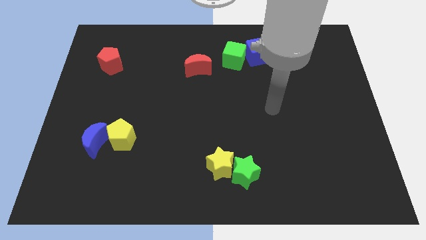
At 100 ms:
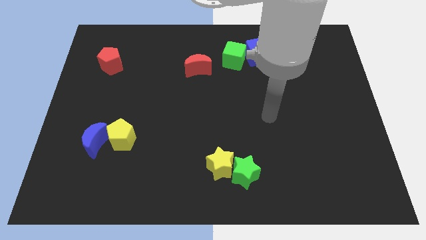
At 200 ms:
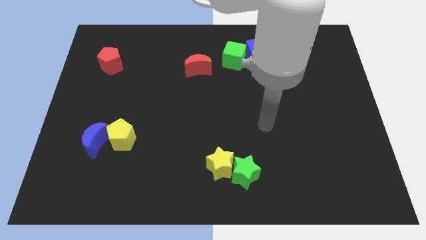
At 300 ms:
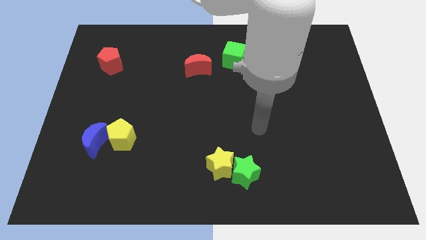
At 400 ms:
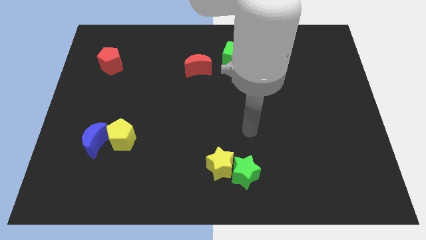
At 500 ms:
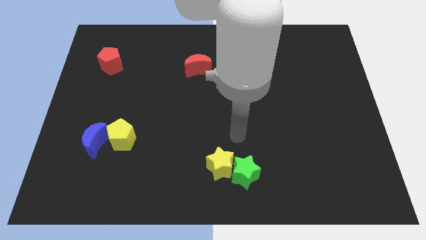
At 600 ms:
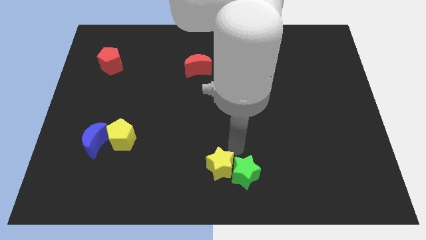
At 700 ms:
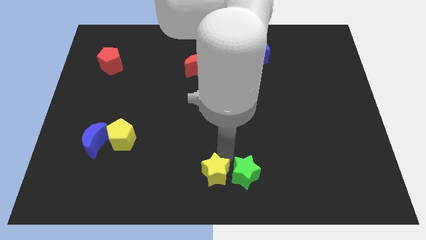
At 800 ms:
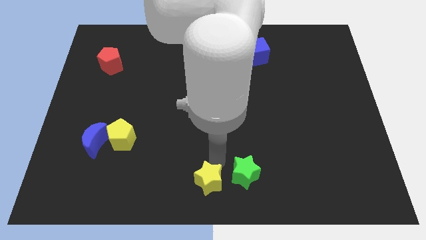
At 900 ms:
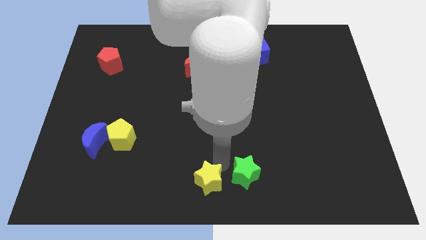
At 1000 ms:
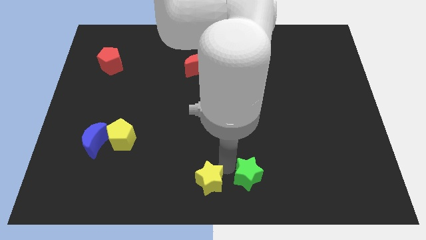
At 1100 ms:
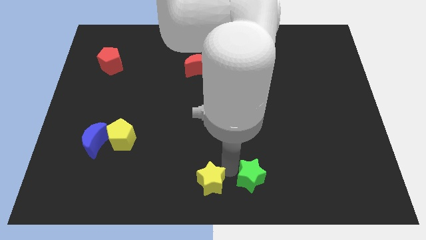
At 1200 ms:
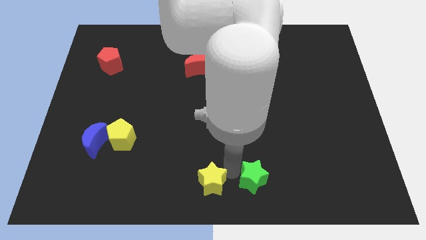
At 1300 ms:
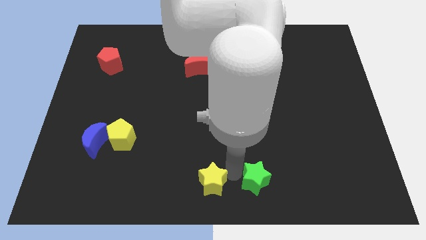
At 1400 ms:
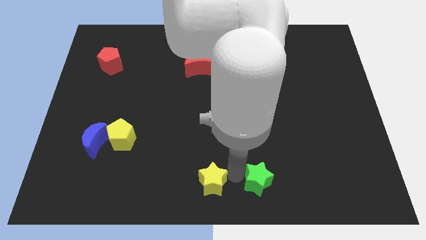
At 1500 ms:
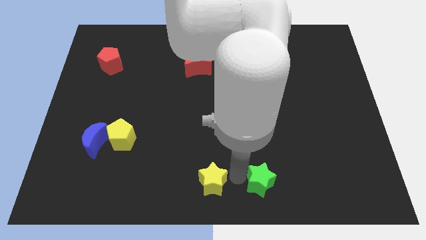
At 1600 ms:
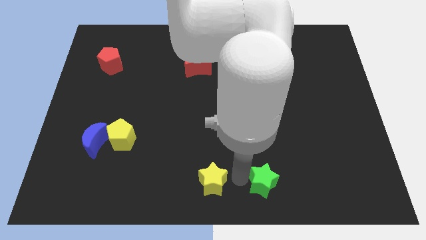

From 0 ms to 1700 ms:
move the green star away from the yellow star

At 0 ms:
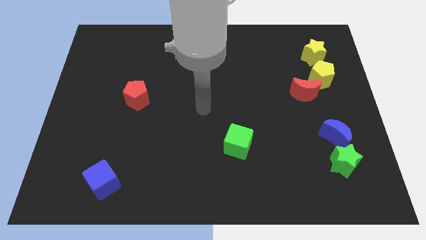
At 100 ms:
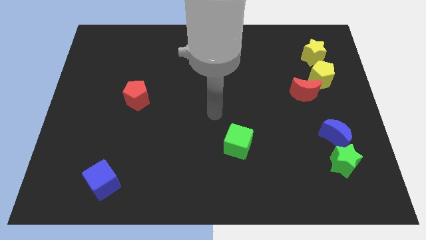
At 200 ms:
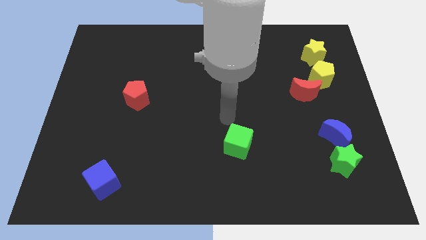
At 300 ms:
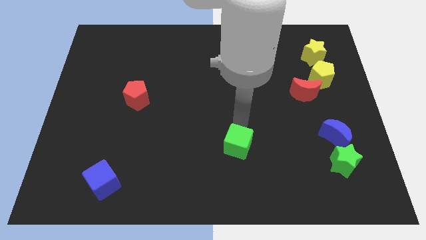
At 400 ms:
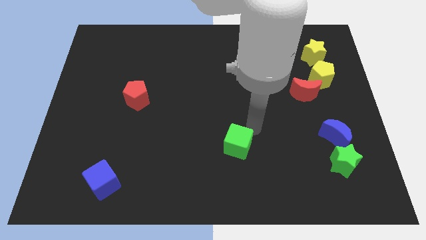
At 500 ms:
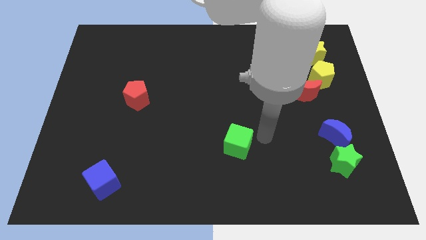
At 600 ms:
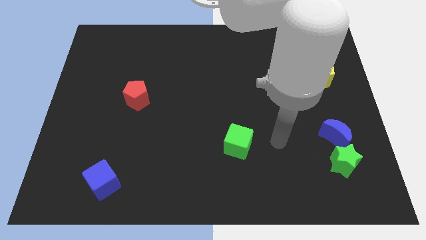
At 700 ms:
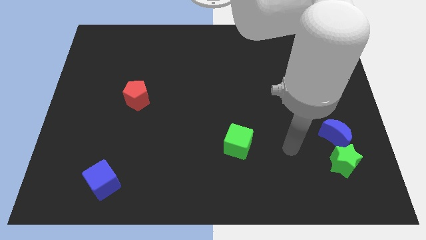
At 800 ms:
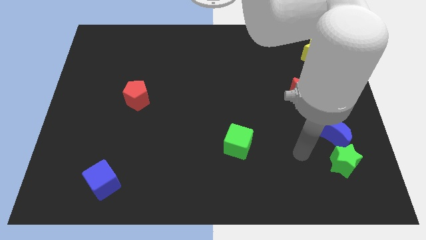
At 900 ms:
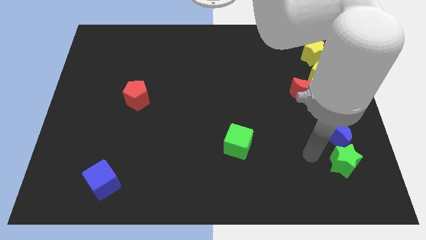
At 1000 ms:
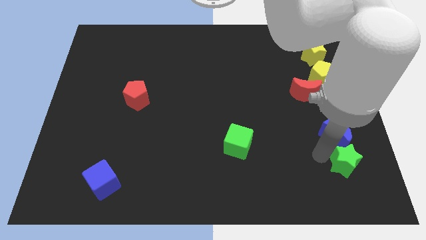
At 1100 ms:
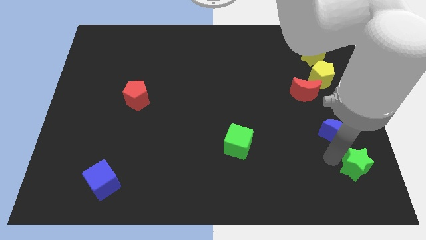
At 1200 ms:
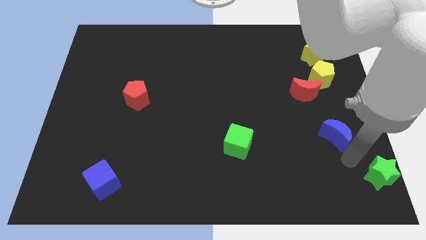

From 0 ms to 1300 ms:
move the blue moon away from the green star

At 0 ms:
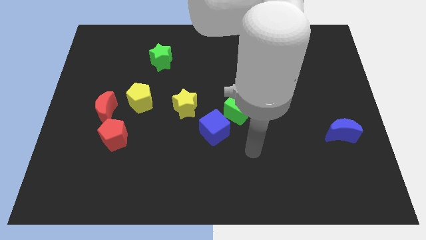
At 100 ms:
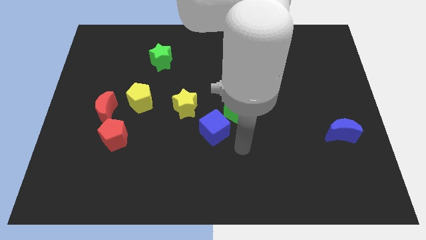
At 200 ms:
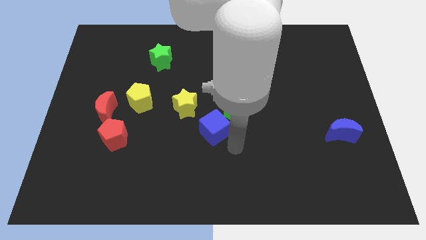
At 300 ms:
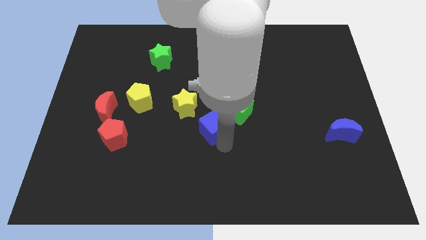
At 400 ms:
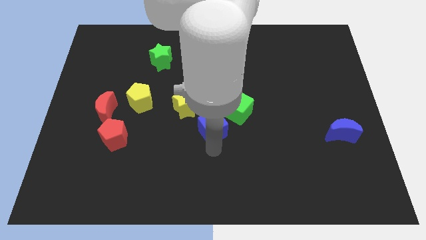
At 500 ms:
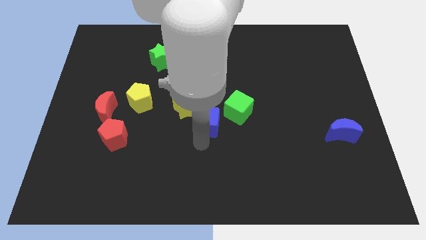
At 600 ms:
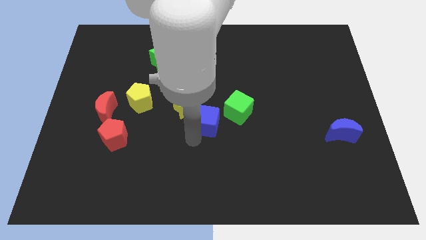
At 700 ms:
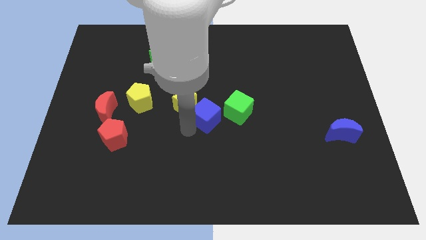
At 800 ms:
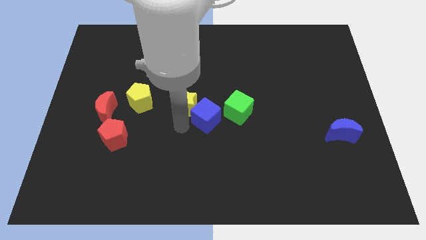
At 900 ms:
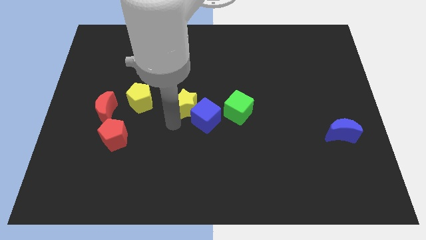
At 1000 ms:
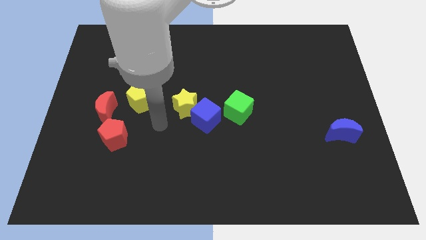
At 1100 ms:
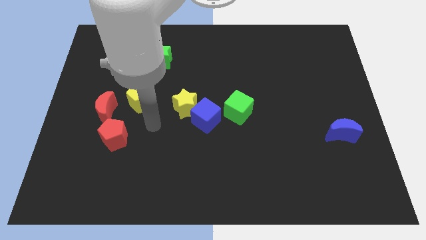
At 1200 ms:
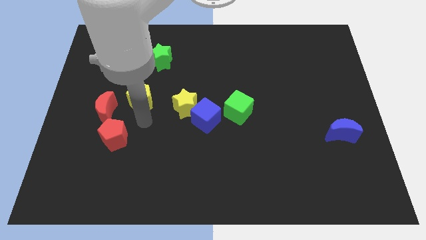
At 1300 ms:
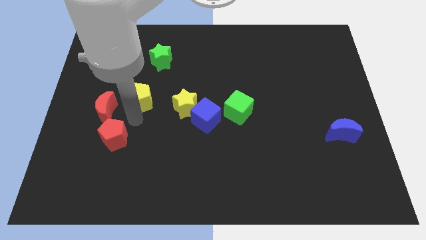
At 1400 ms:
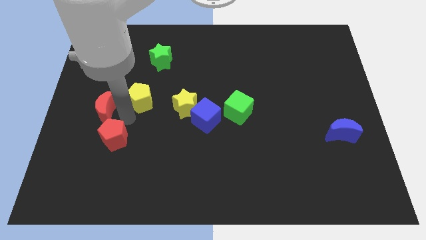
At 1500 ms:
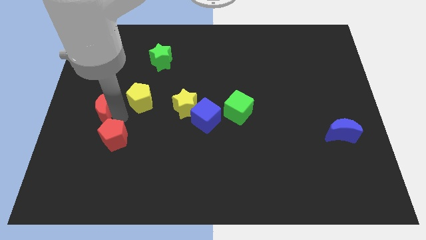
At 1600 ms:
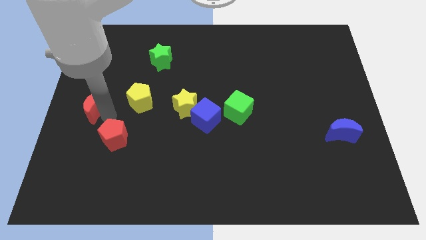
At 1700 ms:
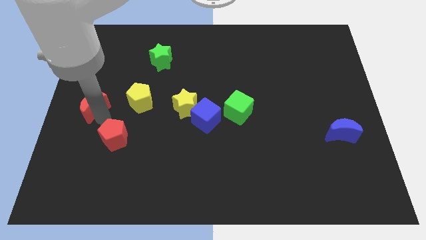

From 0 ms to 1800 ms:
pull the red pentagon apart from the red moon

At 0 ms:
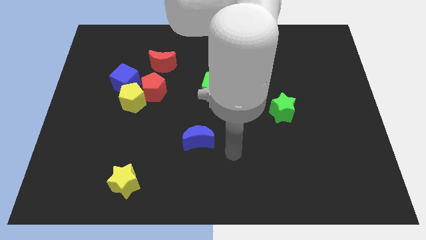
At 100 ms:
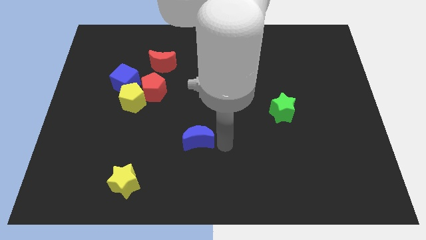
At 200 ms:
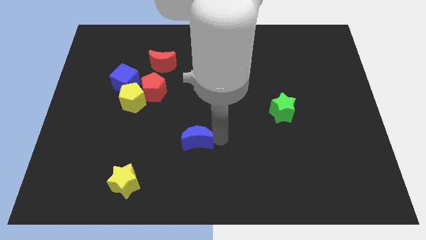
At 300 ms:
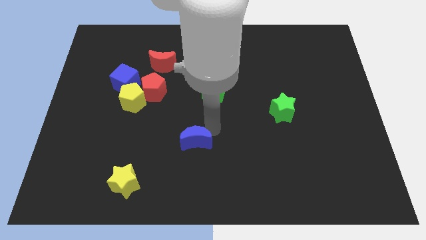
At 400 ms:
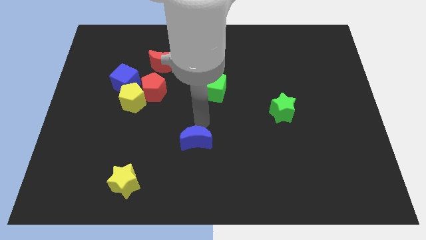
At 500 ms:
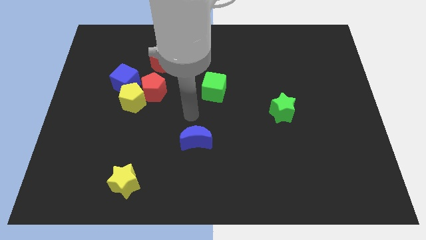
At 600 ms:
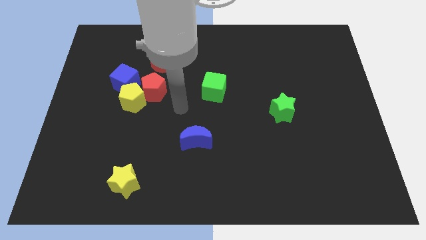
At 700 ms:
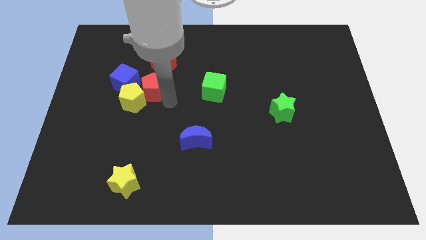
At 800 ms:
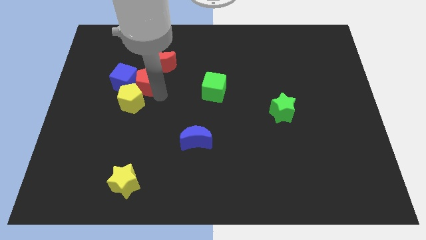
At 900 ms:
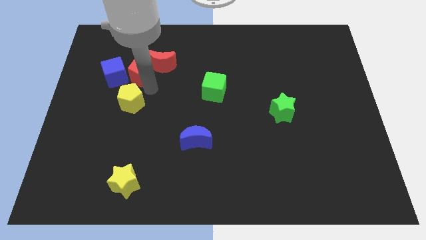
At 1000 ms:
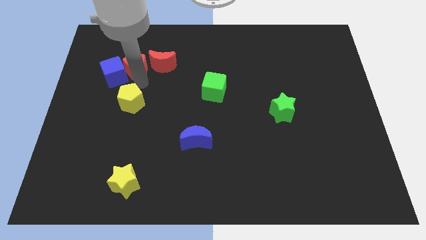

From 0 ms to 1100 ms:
separate the yellow pentagon from the red pentagon and blue cube

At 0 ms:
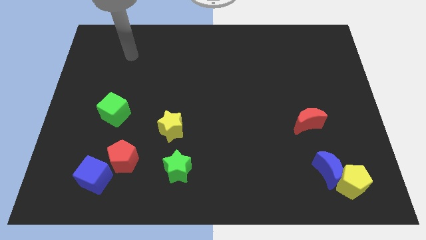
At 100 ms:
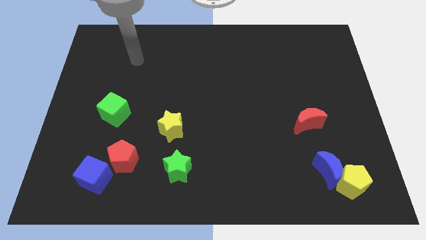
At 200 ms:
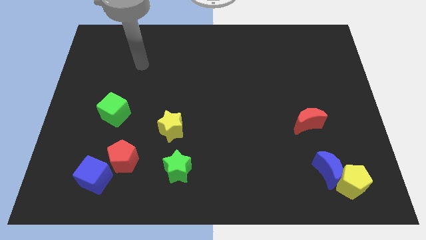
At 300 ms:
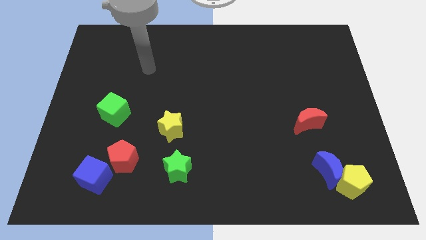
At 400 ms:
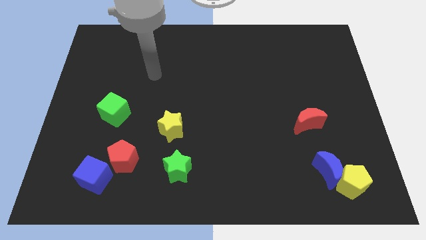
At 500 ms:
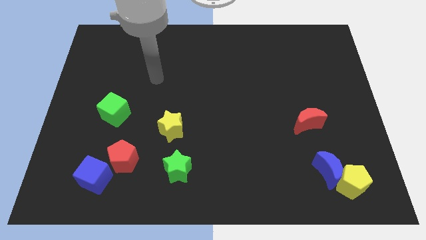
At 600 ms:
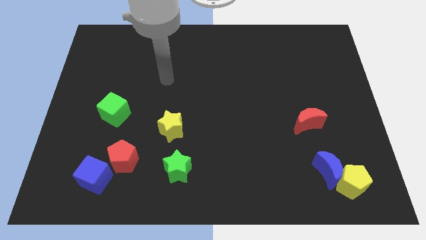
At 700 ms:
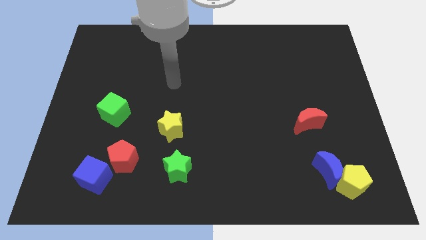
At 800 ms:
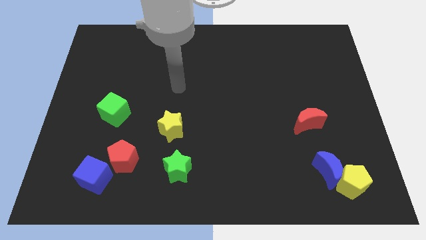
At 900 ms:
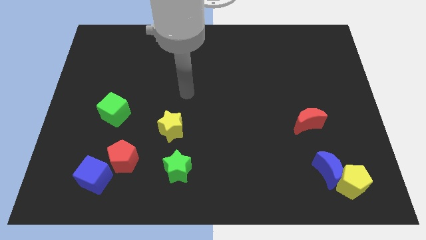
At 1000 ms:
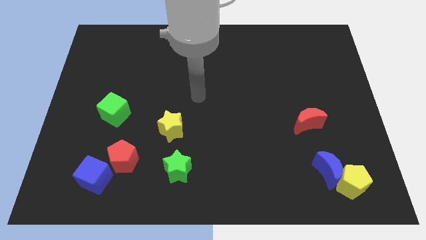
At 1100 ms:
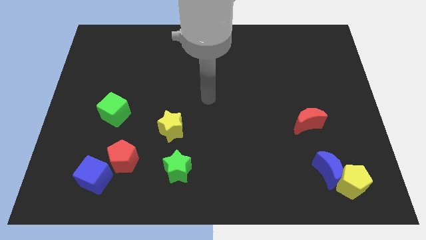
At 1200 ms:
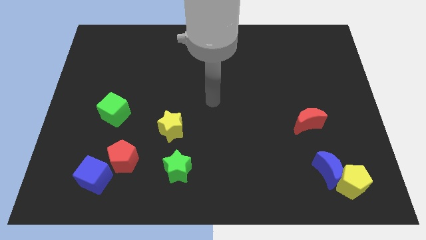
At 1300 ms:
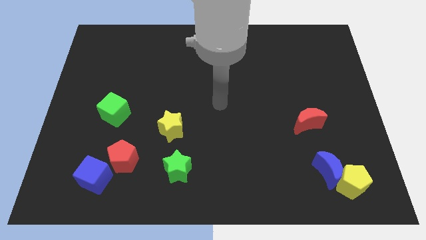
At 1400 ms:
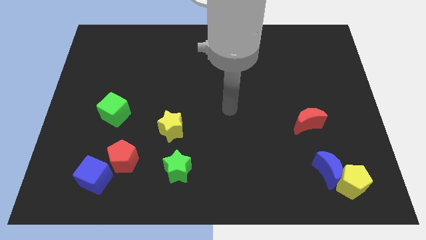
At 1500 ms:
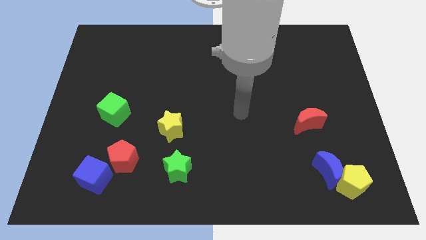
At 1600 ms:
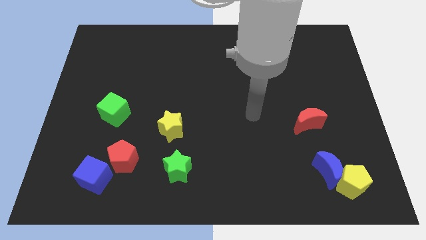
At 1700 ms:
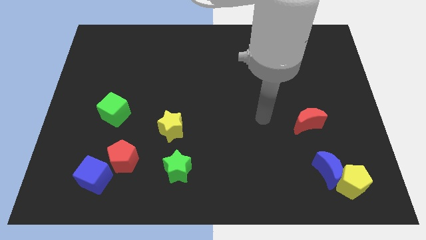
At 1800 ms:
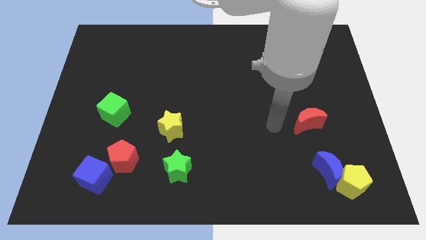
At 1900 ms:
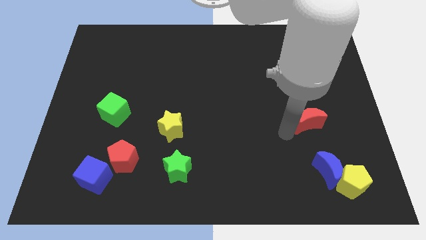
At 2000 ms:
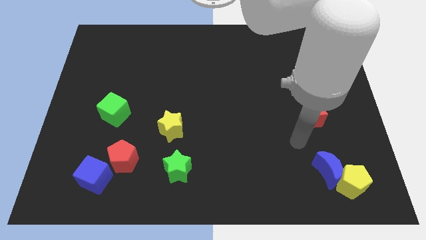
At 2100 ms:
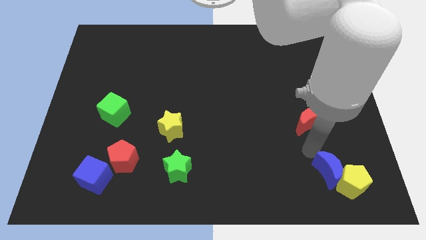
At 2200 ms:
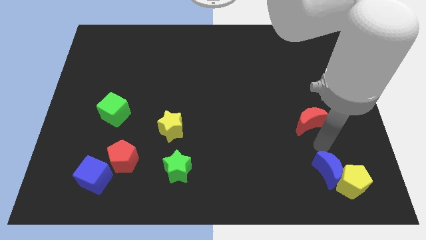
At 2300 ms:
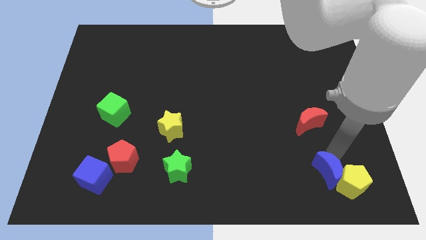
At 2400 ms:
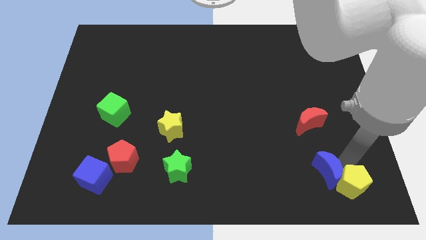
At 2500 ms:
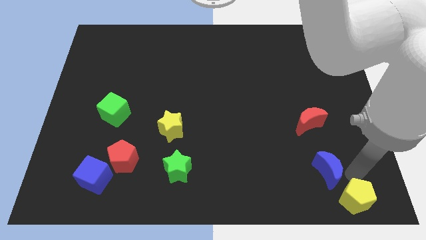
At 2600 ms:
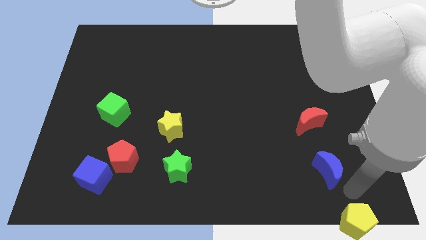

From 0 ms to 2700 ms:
move the blue moon away from the yellow pentagon

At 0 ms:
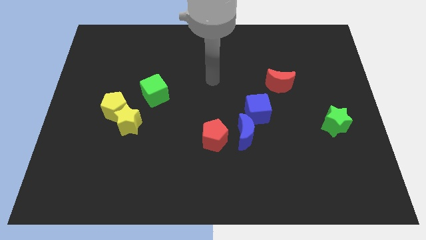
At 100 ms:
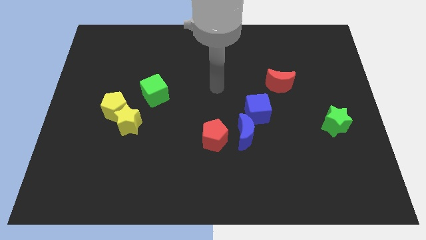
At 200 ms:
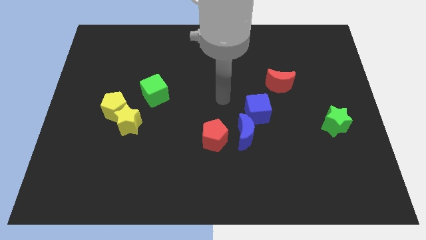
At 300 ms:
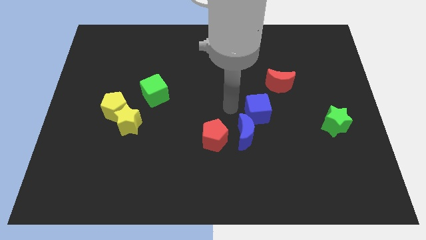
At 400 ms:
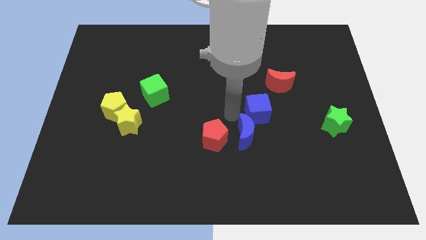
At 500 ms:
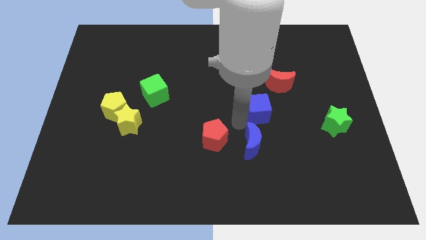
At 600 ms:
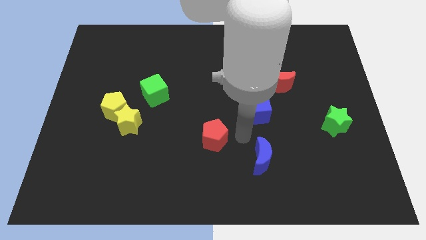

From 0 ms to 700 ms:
move the red pentagon away from the blue moon

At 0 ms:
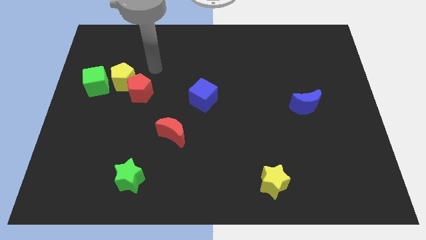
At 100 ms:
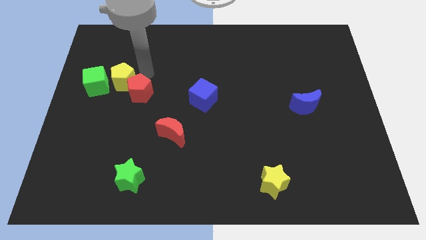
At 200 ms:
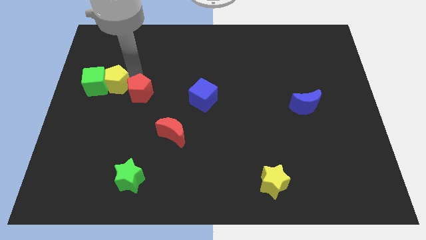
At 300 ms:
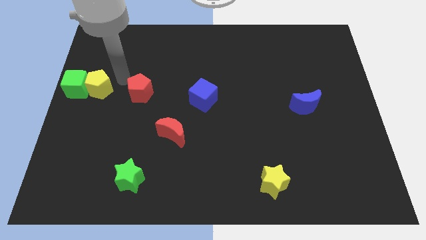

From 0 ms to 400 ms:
move the red pentagon away from the yellow pentagon
